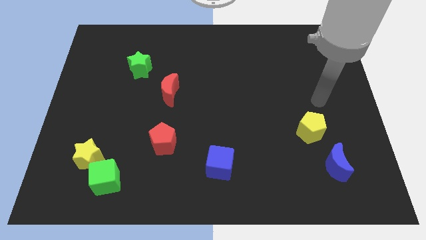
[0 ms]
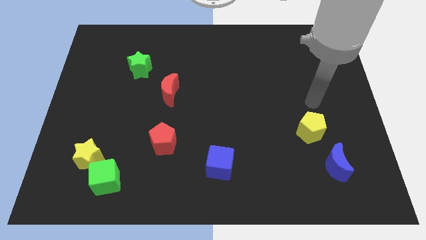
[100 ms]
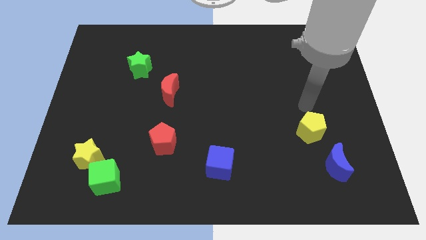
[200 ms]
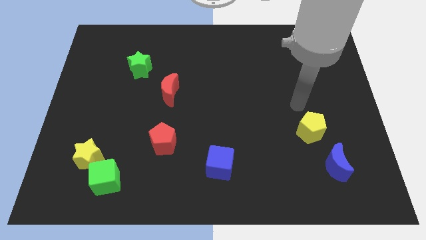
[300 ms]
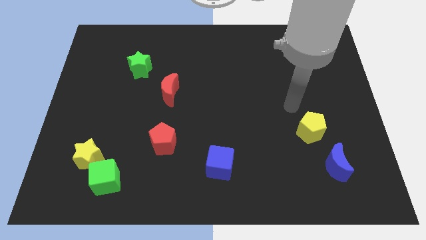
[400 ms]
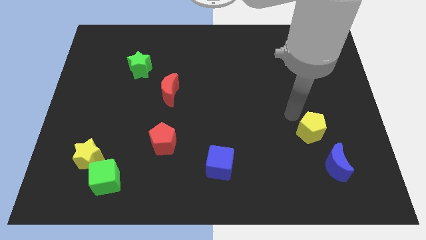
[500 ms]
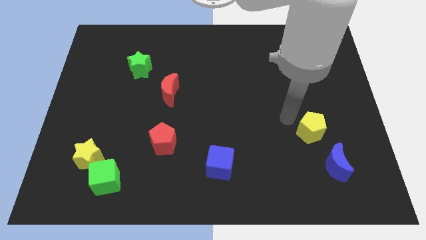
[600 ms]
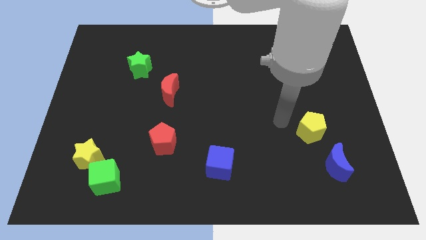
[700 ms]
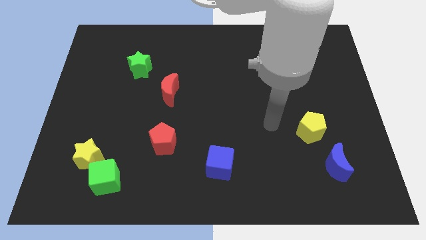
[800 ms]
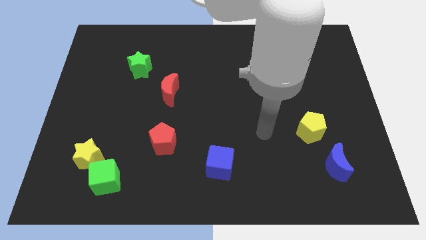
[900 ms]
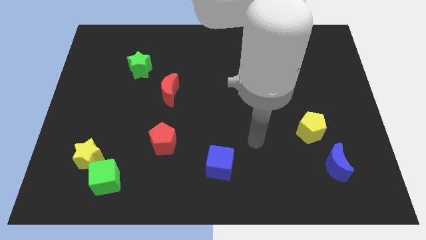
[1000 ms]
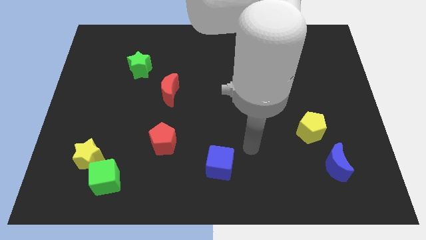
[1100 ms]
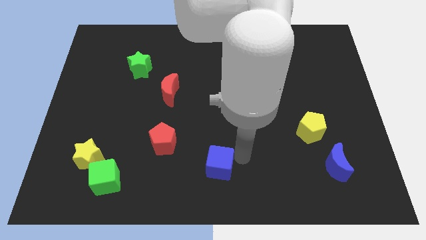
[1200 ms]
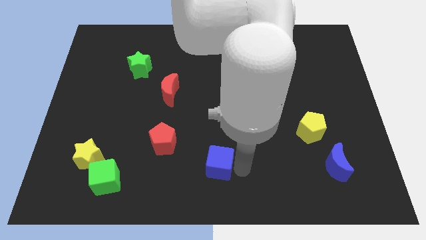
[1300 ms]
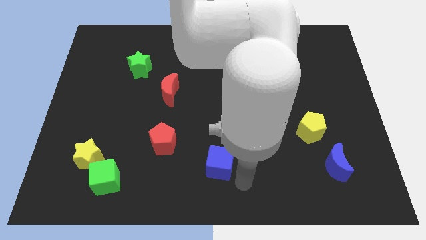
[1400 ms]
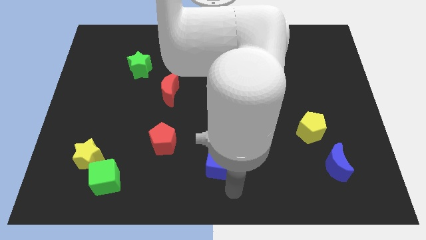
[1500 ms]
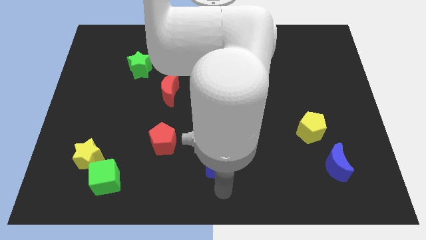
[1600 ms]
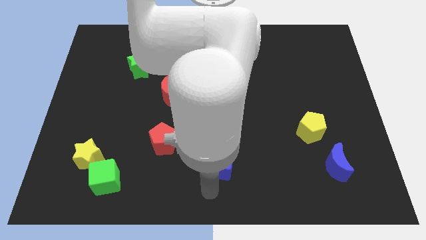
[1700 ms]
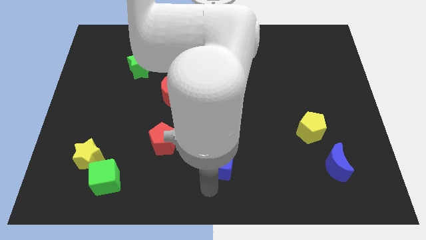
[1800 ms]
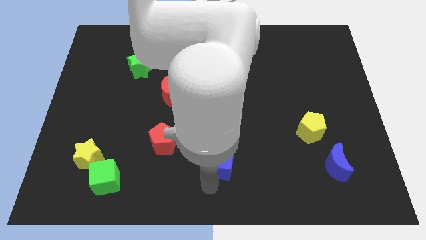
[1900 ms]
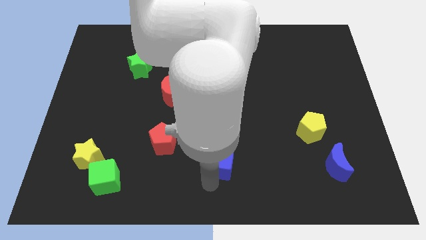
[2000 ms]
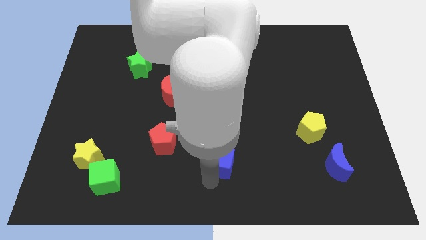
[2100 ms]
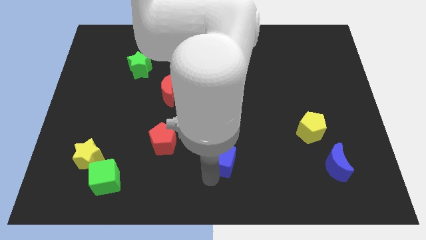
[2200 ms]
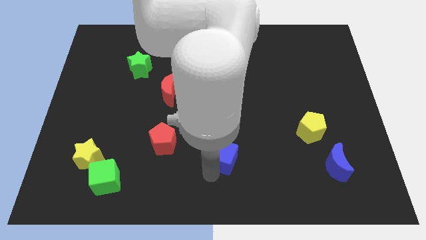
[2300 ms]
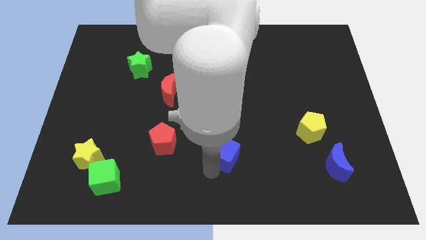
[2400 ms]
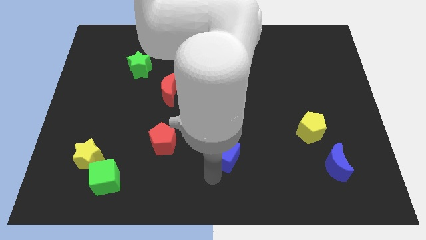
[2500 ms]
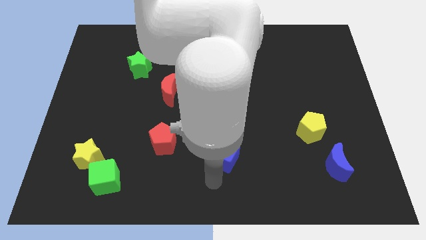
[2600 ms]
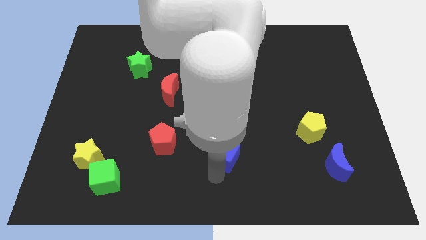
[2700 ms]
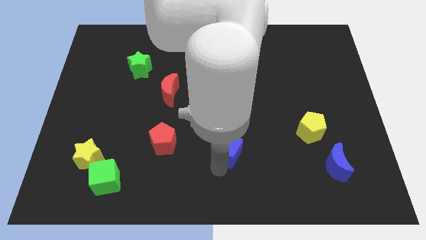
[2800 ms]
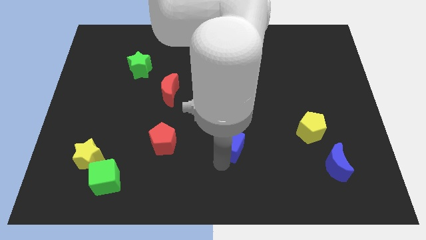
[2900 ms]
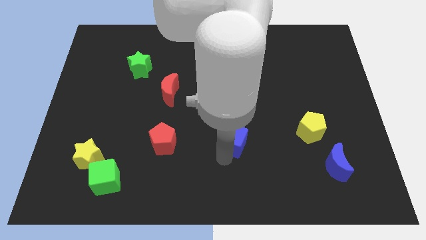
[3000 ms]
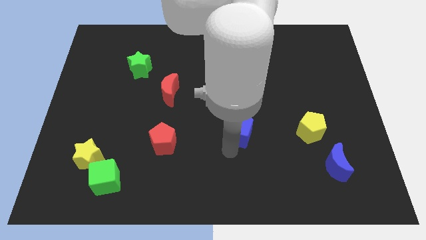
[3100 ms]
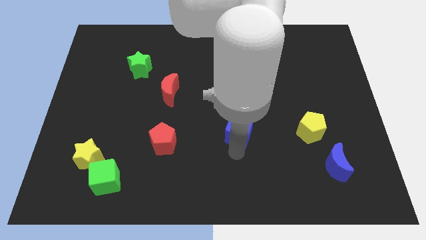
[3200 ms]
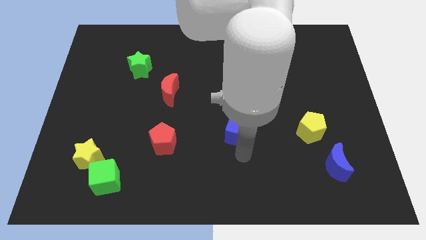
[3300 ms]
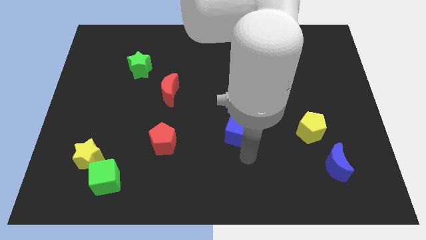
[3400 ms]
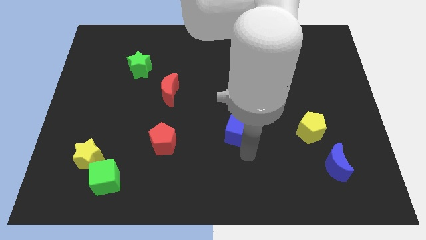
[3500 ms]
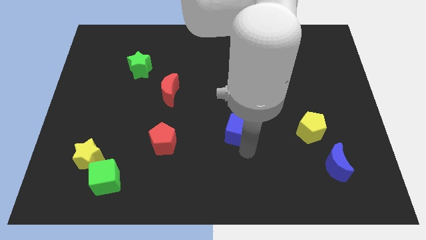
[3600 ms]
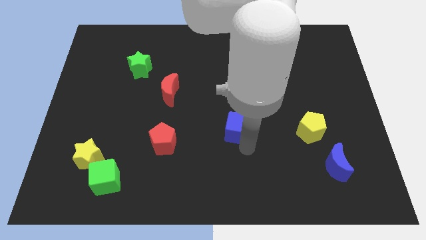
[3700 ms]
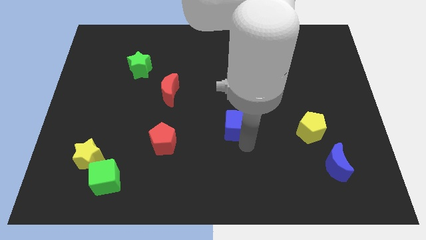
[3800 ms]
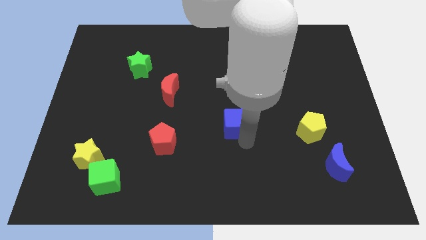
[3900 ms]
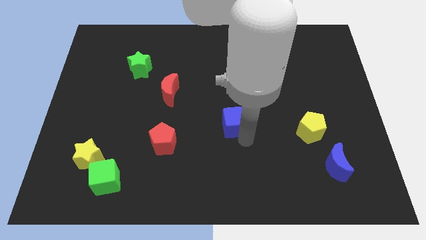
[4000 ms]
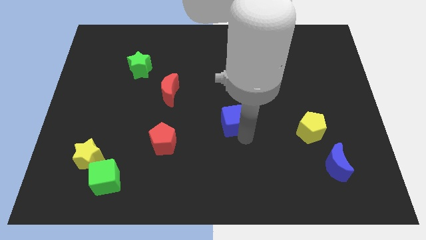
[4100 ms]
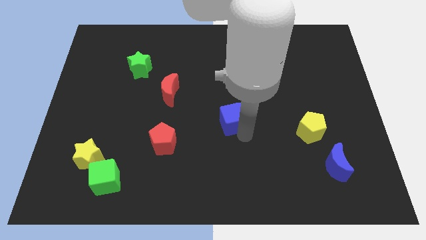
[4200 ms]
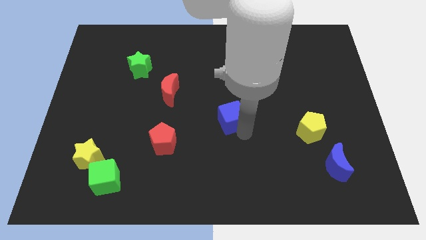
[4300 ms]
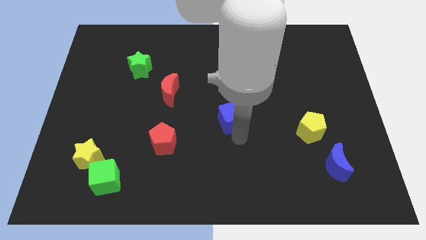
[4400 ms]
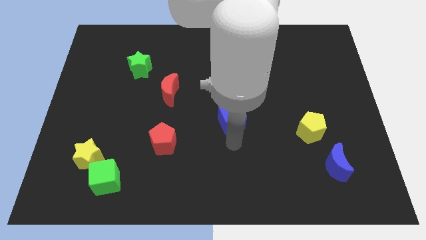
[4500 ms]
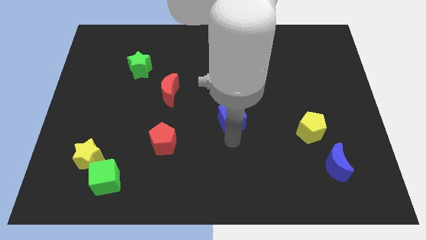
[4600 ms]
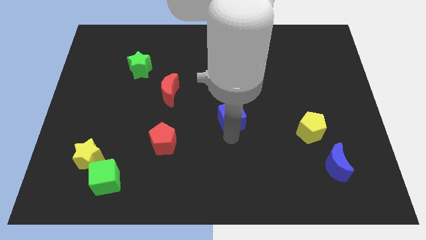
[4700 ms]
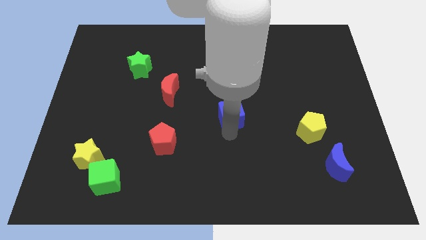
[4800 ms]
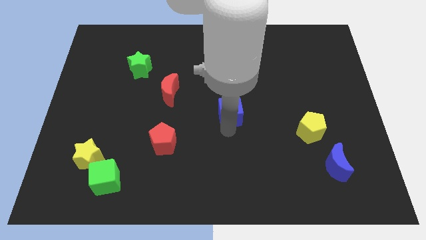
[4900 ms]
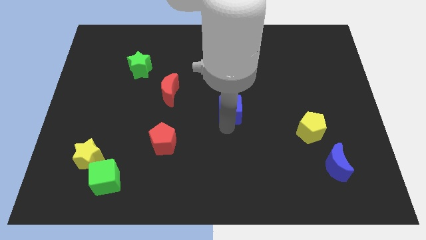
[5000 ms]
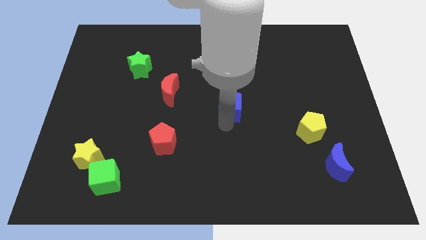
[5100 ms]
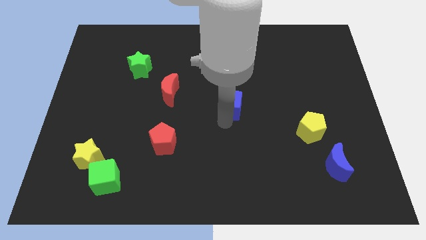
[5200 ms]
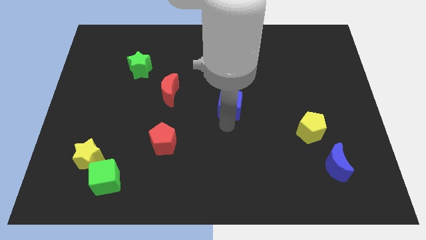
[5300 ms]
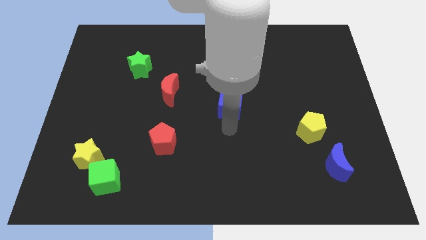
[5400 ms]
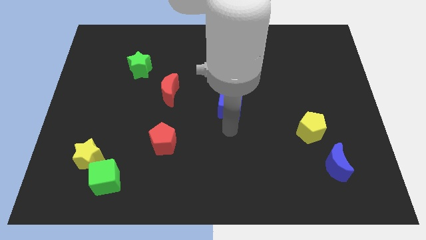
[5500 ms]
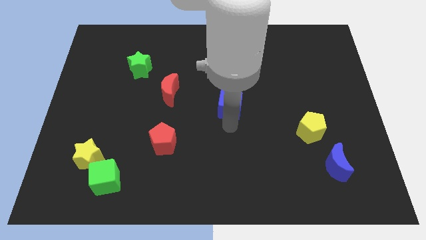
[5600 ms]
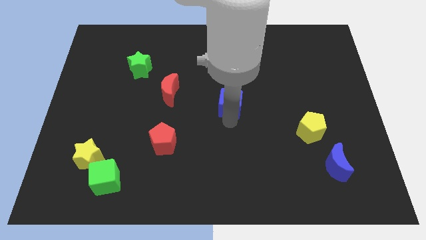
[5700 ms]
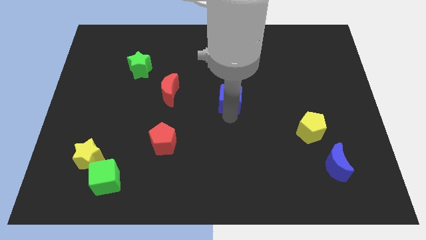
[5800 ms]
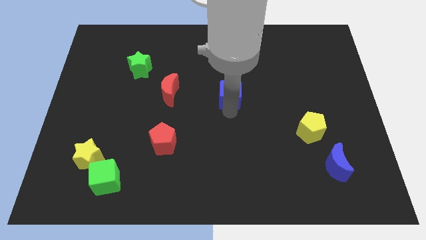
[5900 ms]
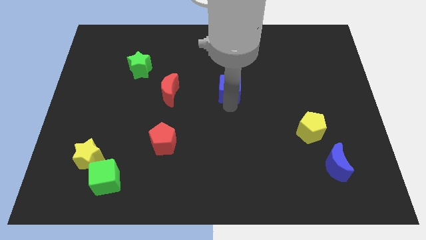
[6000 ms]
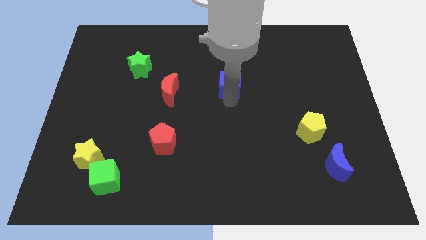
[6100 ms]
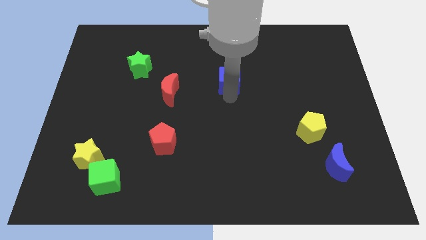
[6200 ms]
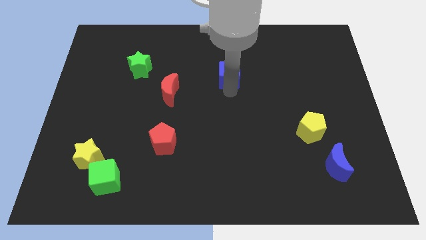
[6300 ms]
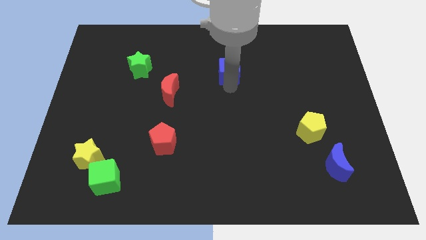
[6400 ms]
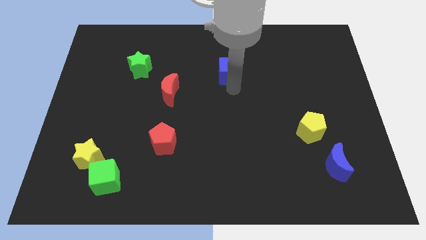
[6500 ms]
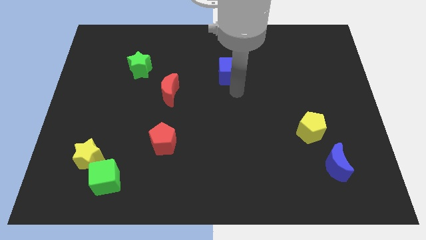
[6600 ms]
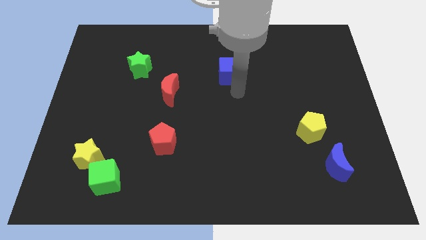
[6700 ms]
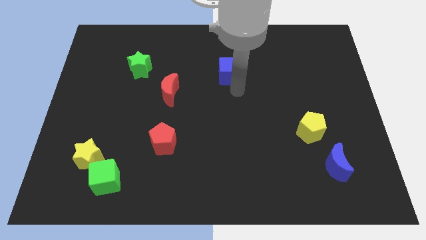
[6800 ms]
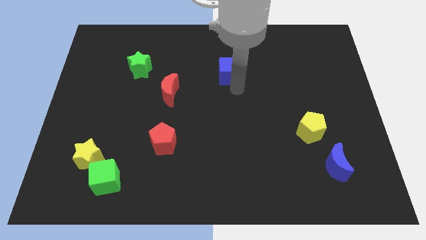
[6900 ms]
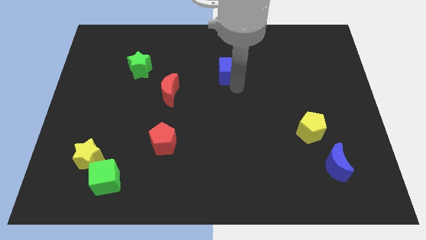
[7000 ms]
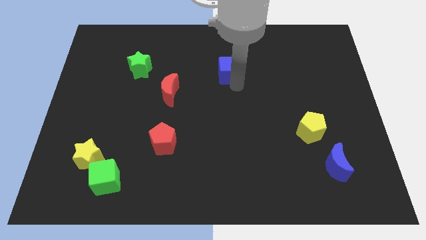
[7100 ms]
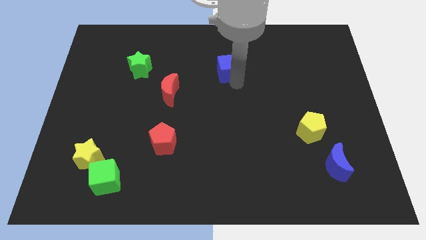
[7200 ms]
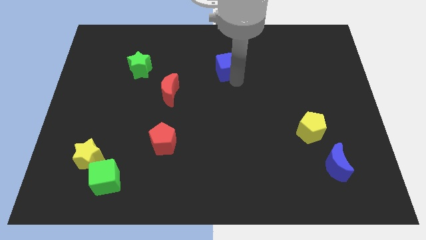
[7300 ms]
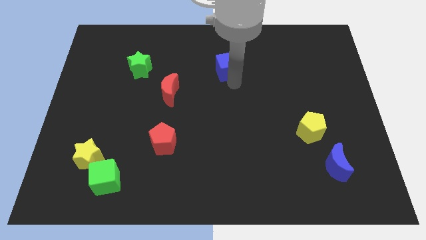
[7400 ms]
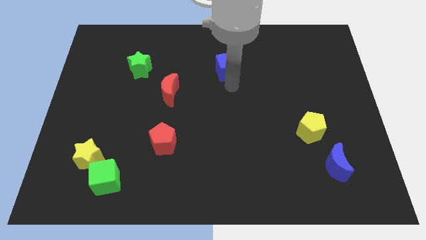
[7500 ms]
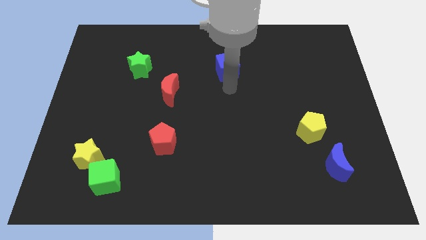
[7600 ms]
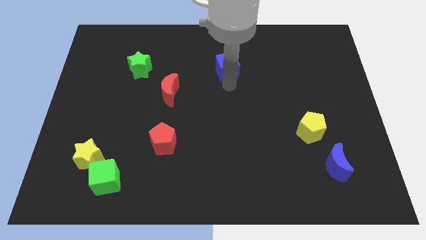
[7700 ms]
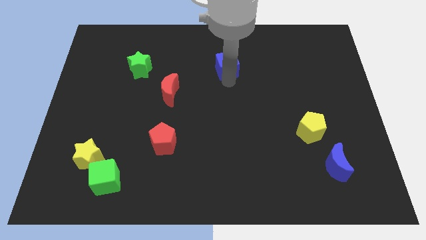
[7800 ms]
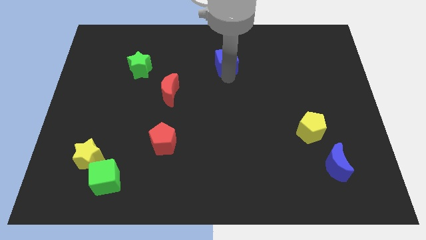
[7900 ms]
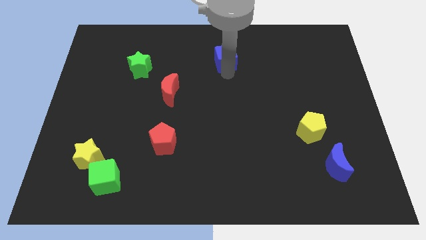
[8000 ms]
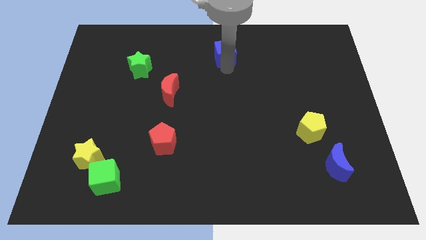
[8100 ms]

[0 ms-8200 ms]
push the blue cube to the towards your base
